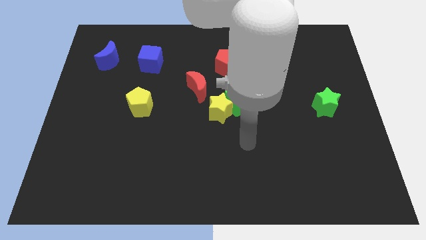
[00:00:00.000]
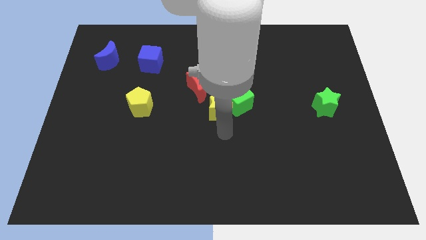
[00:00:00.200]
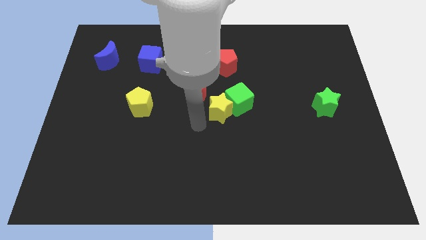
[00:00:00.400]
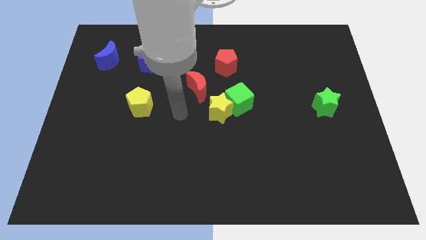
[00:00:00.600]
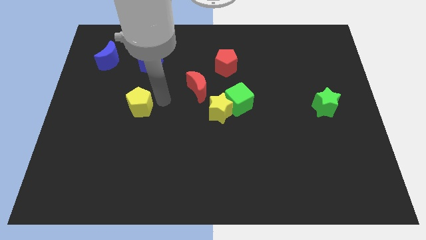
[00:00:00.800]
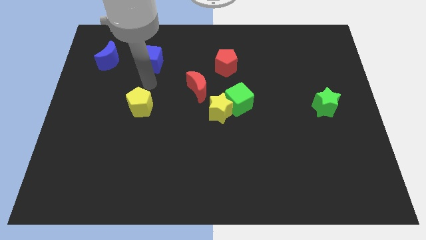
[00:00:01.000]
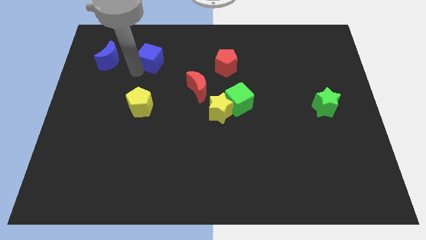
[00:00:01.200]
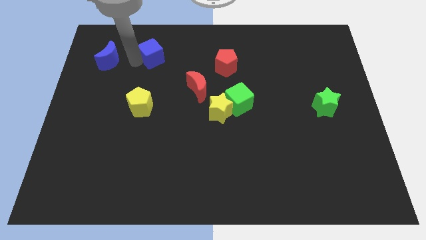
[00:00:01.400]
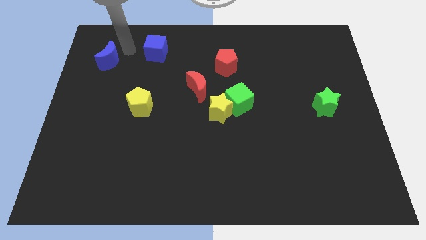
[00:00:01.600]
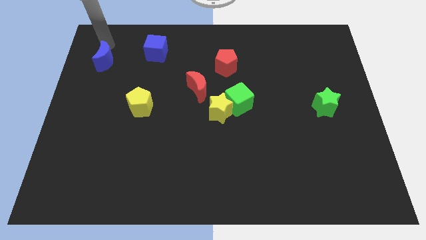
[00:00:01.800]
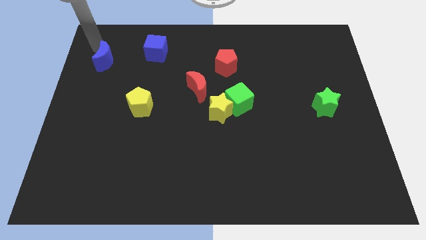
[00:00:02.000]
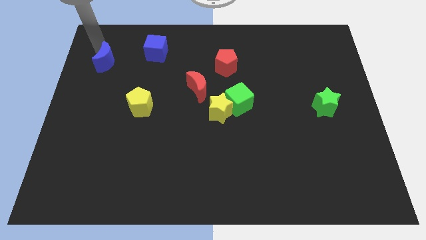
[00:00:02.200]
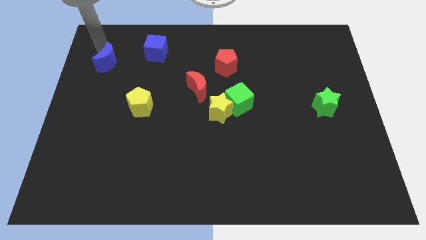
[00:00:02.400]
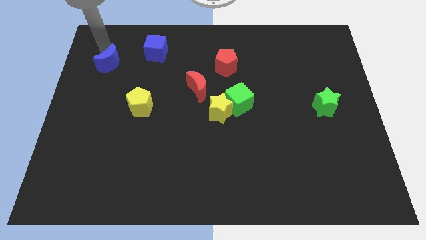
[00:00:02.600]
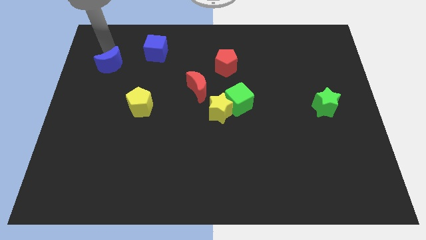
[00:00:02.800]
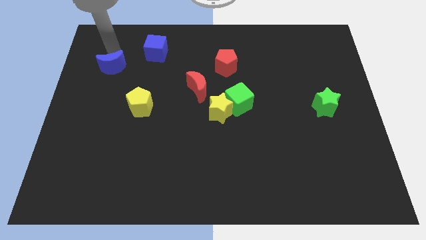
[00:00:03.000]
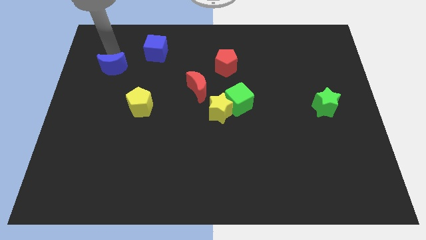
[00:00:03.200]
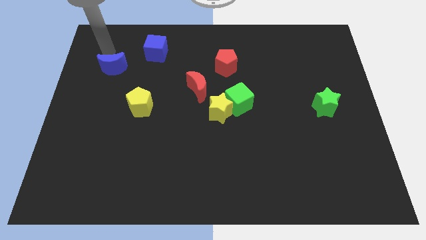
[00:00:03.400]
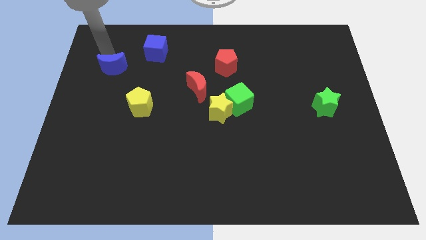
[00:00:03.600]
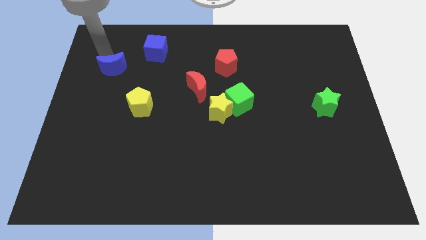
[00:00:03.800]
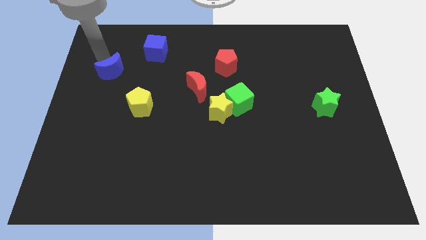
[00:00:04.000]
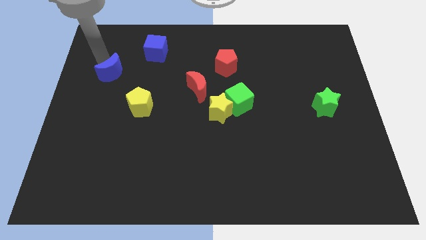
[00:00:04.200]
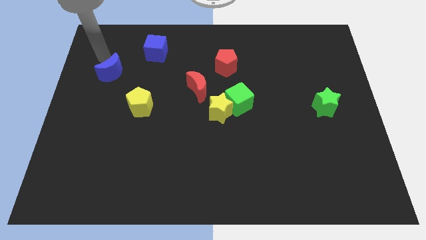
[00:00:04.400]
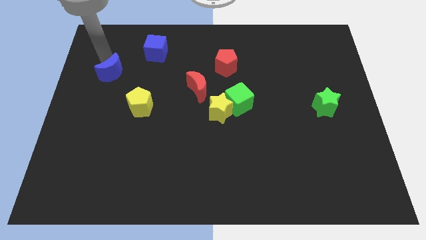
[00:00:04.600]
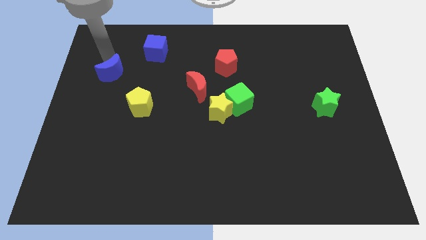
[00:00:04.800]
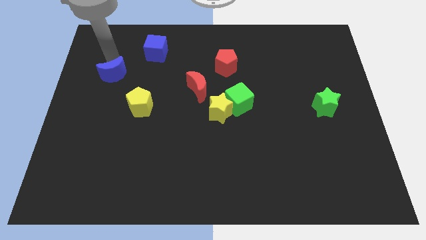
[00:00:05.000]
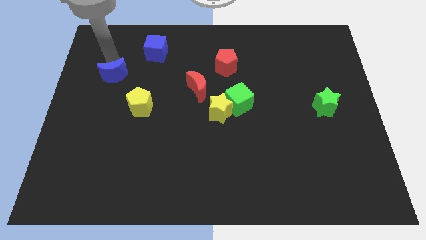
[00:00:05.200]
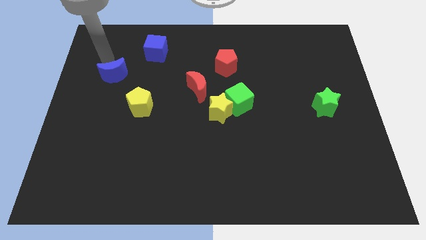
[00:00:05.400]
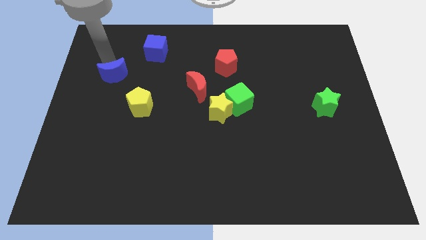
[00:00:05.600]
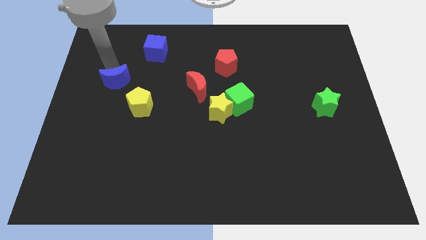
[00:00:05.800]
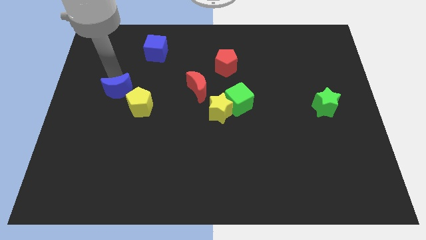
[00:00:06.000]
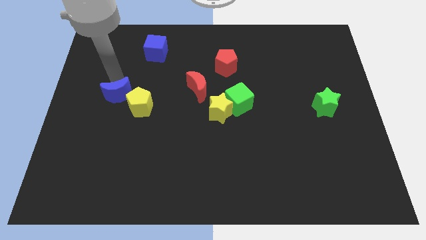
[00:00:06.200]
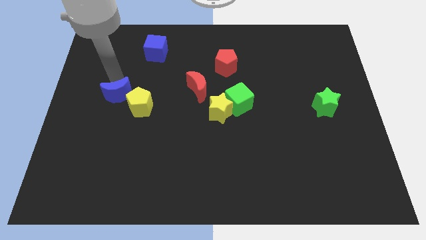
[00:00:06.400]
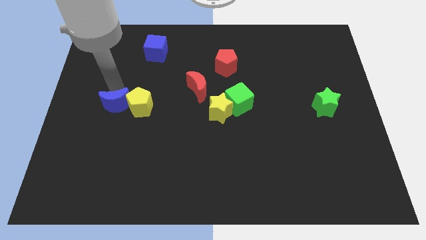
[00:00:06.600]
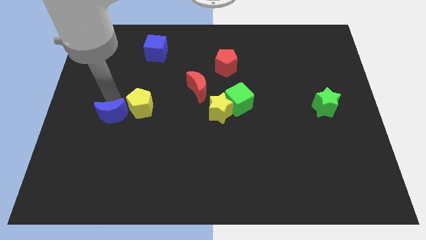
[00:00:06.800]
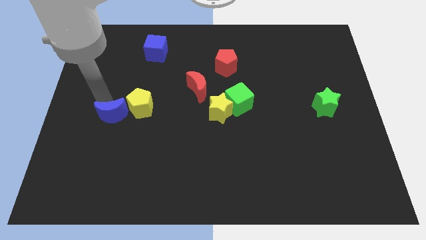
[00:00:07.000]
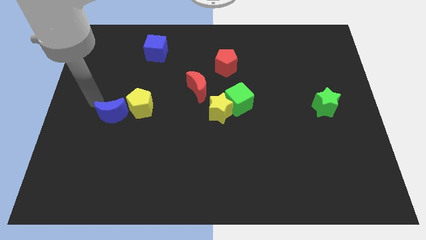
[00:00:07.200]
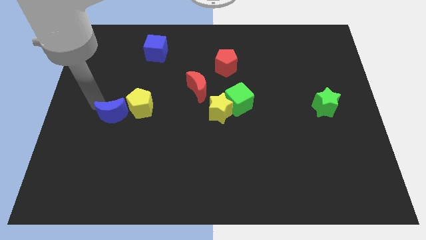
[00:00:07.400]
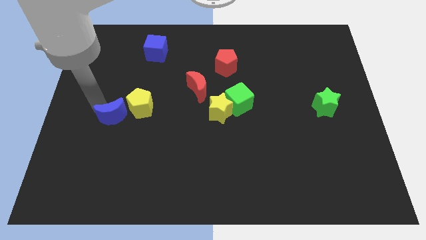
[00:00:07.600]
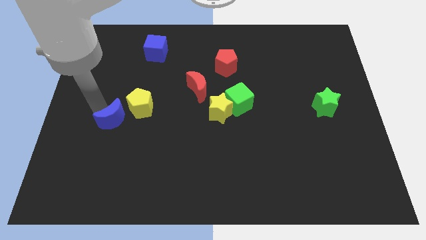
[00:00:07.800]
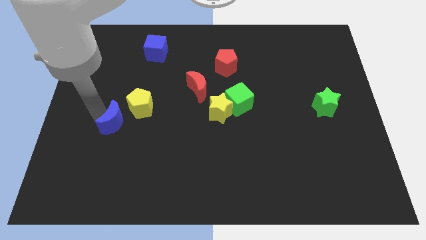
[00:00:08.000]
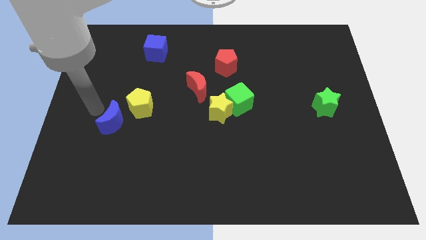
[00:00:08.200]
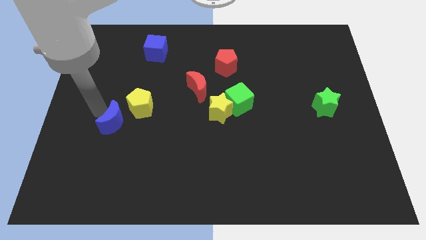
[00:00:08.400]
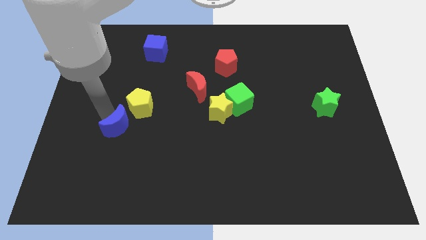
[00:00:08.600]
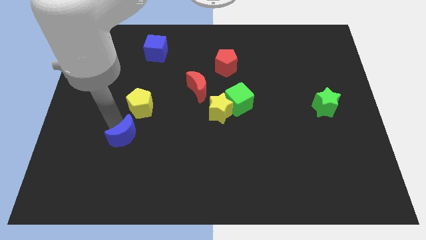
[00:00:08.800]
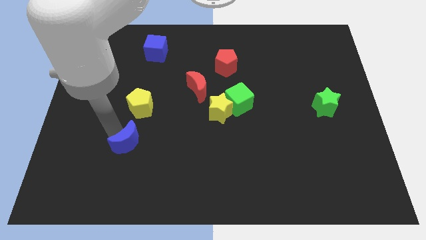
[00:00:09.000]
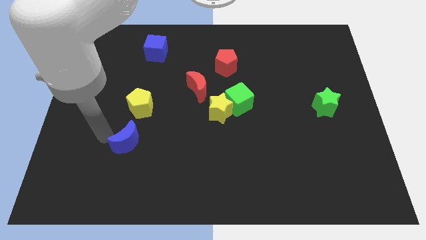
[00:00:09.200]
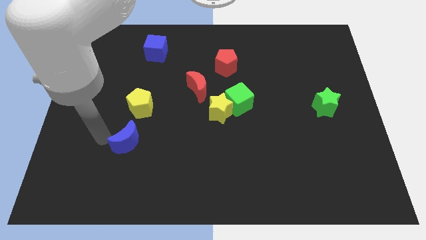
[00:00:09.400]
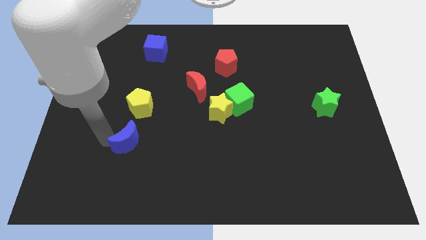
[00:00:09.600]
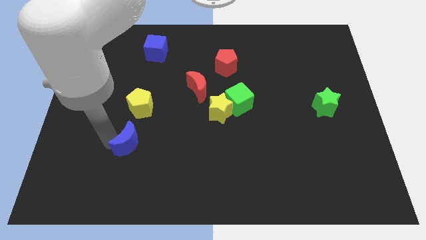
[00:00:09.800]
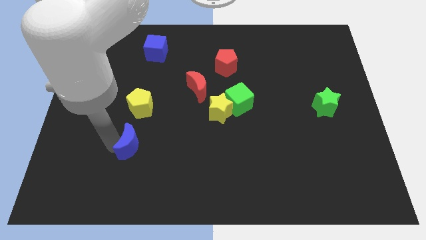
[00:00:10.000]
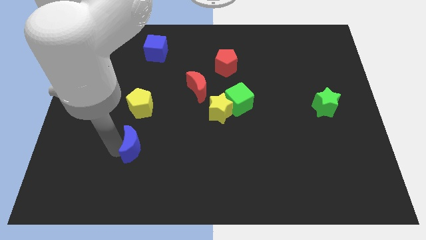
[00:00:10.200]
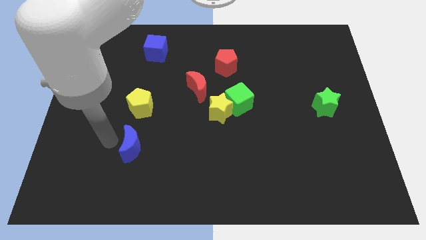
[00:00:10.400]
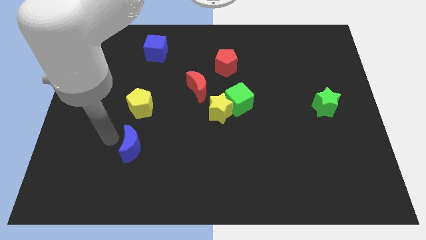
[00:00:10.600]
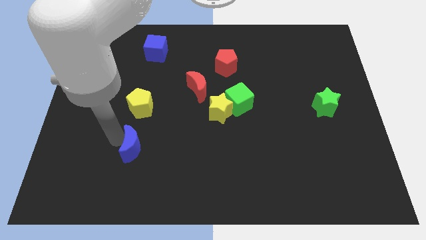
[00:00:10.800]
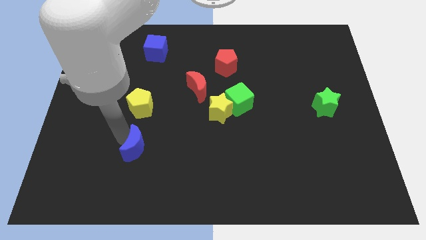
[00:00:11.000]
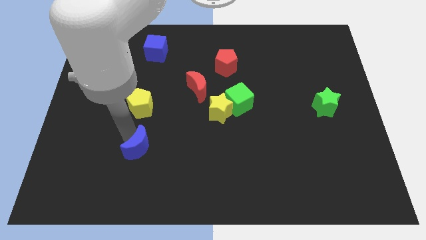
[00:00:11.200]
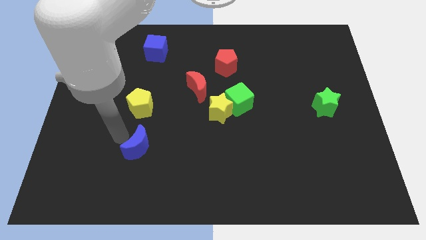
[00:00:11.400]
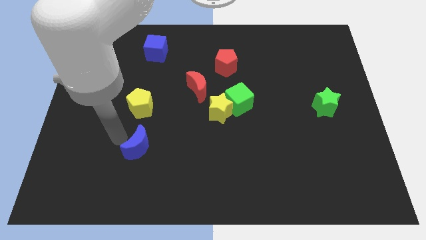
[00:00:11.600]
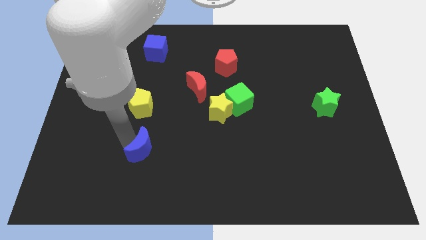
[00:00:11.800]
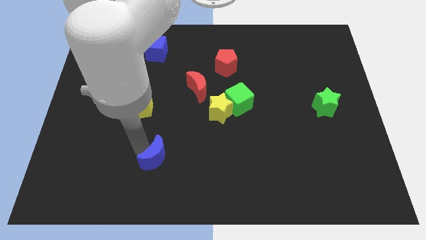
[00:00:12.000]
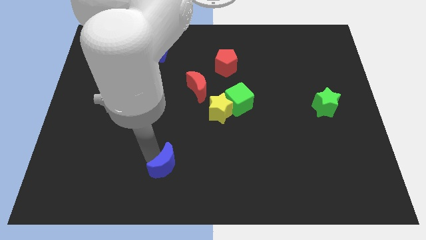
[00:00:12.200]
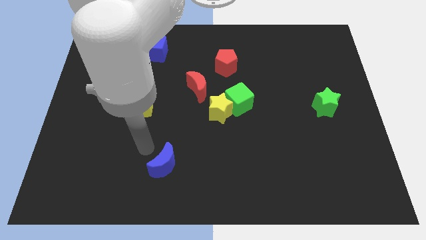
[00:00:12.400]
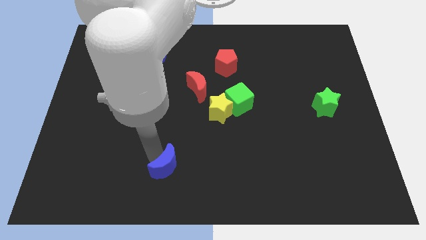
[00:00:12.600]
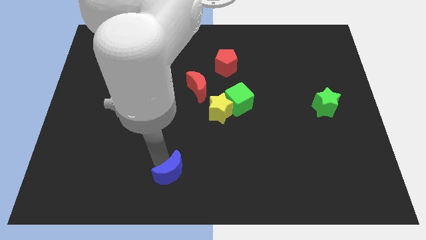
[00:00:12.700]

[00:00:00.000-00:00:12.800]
put the blue moon to the bottom side
